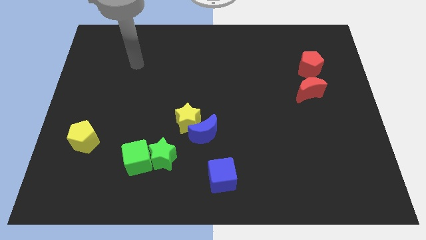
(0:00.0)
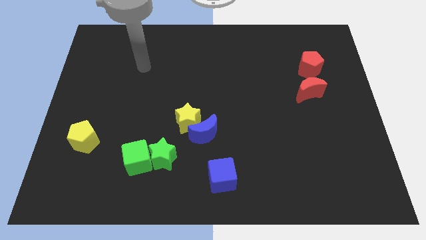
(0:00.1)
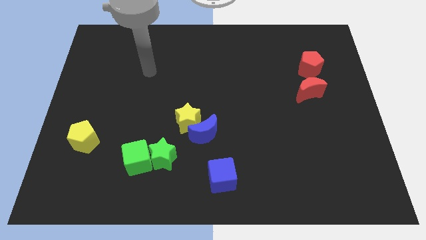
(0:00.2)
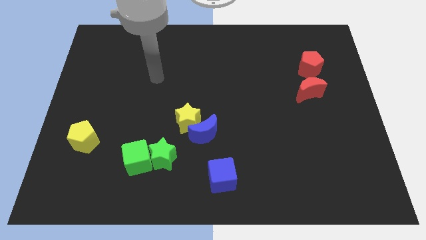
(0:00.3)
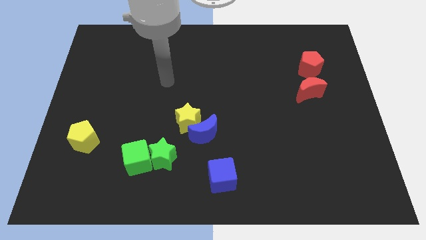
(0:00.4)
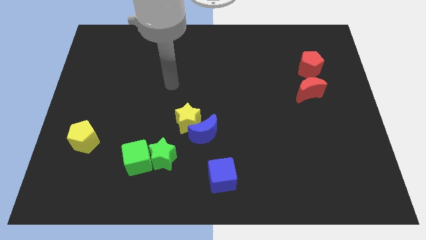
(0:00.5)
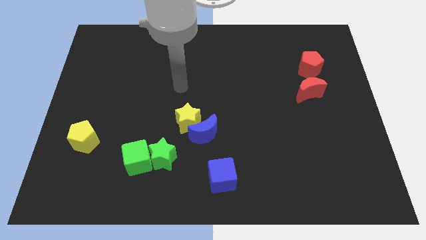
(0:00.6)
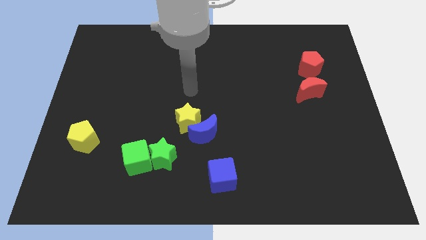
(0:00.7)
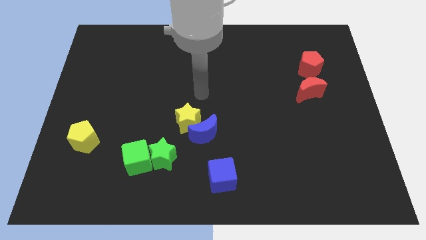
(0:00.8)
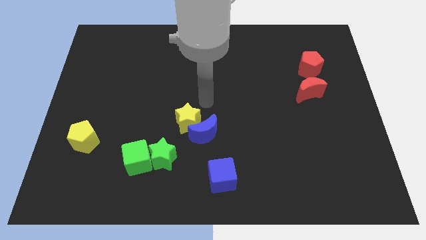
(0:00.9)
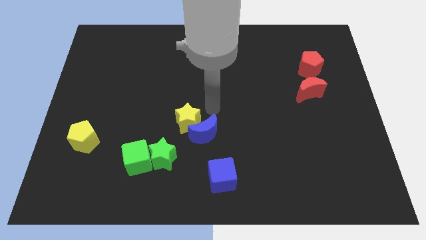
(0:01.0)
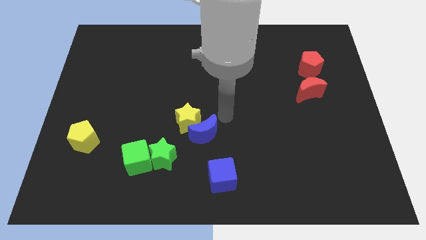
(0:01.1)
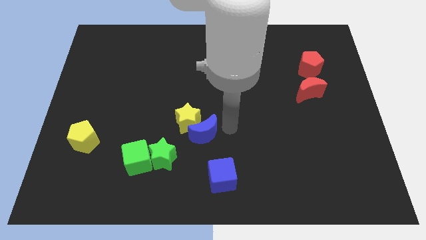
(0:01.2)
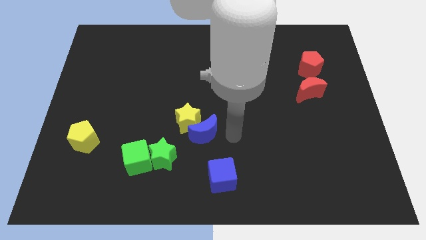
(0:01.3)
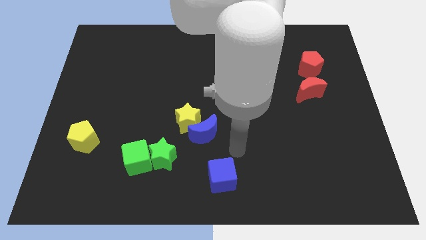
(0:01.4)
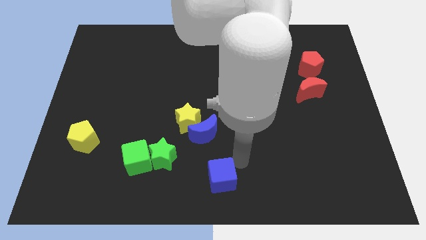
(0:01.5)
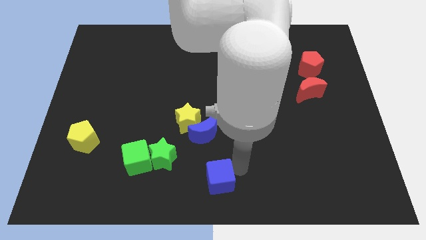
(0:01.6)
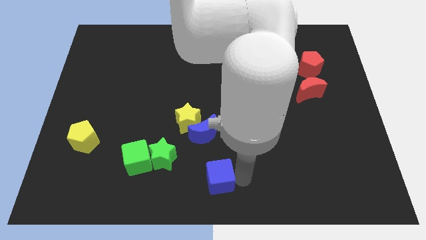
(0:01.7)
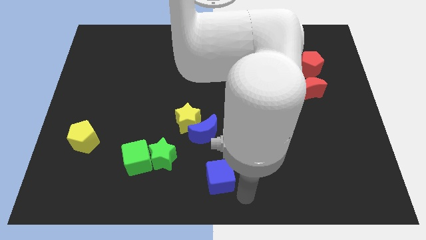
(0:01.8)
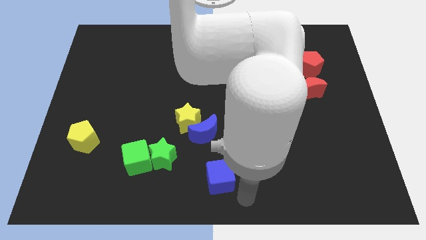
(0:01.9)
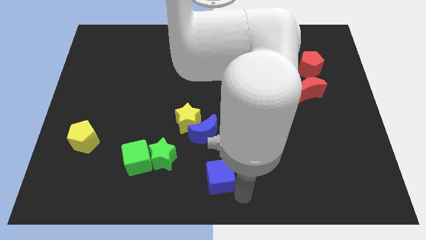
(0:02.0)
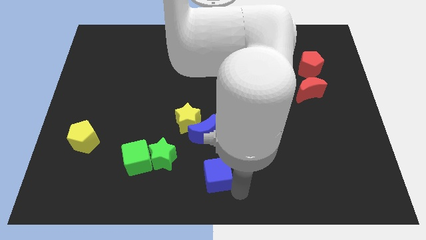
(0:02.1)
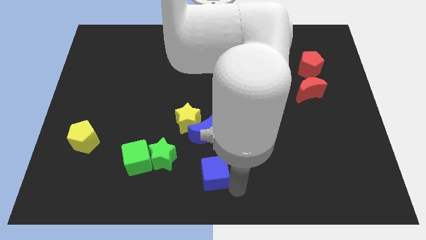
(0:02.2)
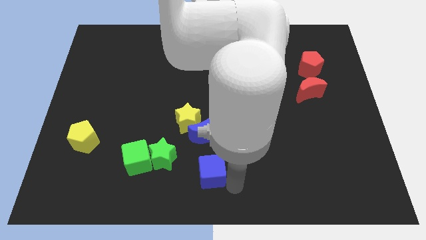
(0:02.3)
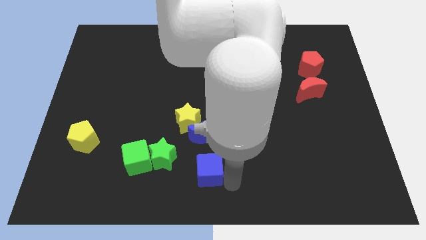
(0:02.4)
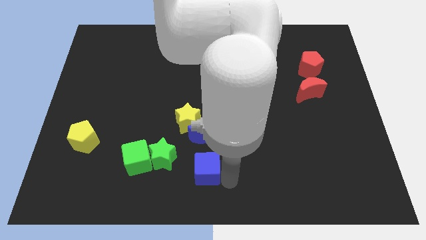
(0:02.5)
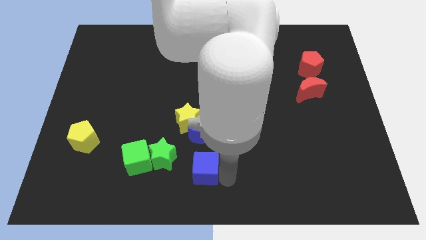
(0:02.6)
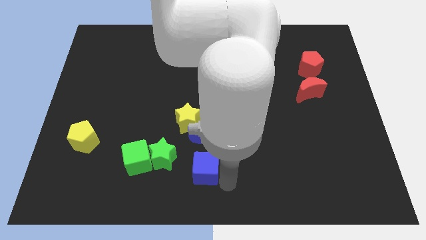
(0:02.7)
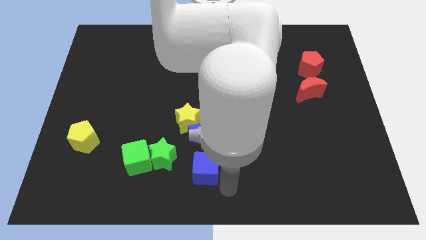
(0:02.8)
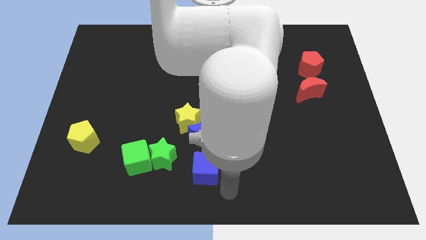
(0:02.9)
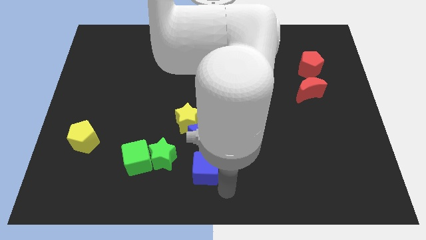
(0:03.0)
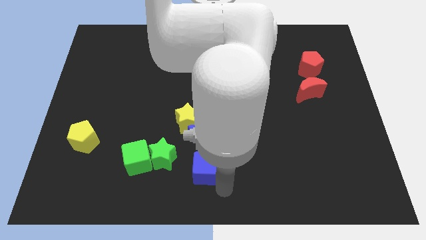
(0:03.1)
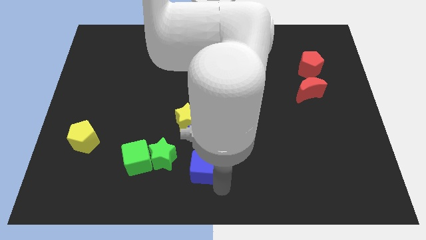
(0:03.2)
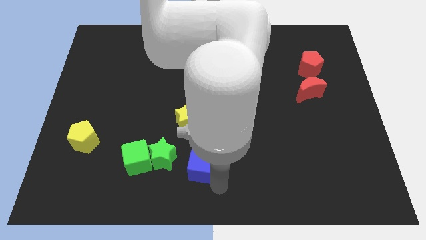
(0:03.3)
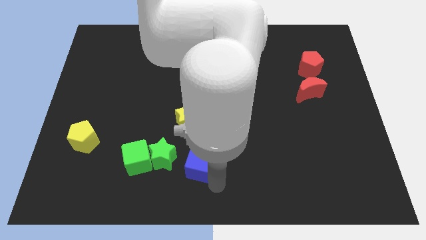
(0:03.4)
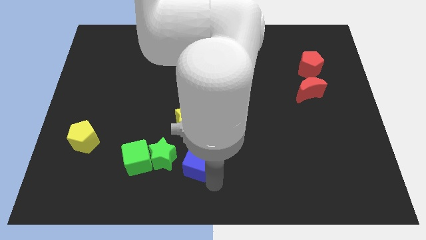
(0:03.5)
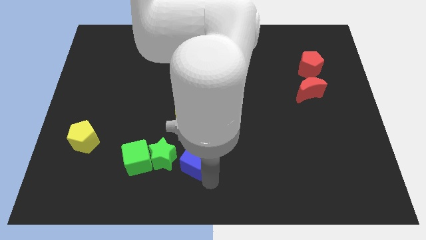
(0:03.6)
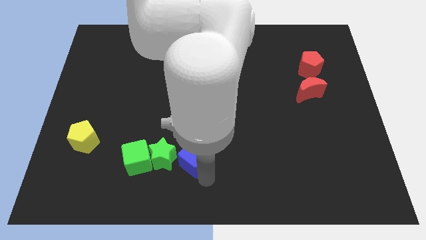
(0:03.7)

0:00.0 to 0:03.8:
slide the blue cube diagonally up and left slightly

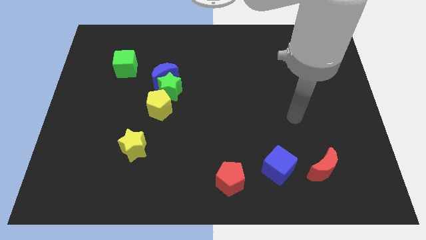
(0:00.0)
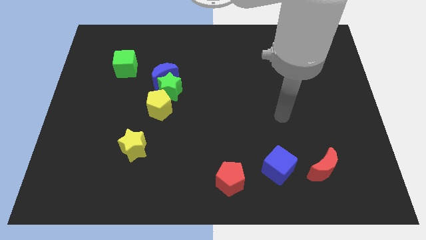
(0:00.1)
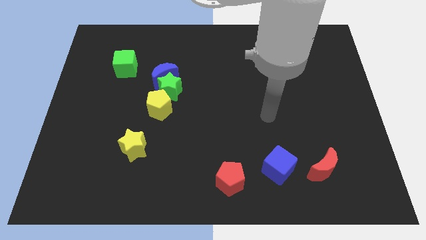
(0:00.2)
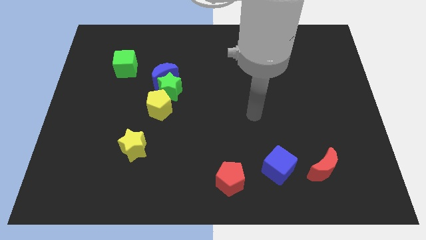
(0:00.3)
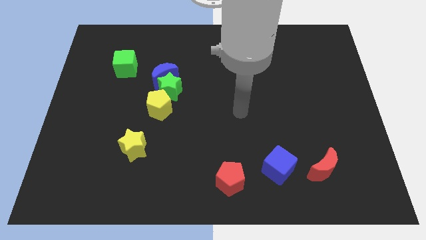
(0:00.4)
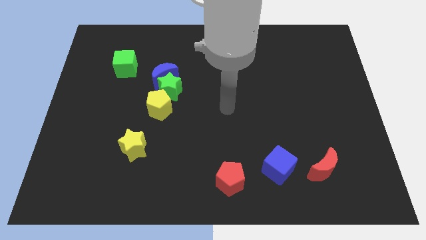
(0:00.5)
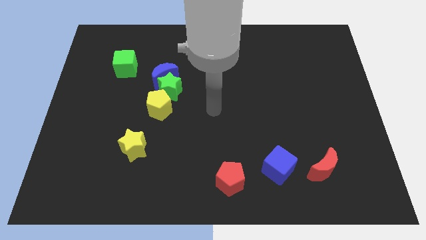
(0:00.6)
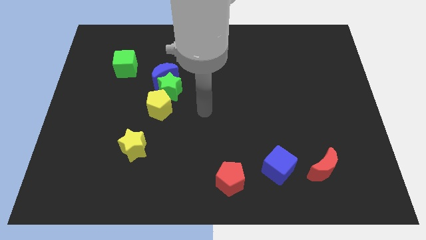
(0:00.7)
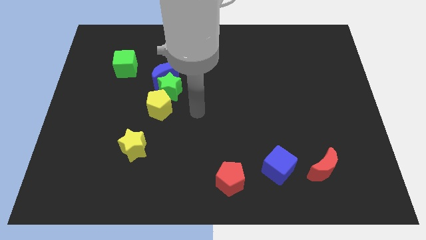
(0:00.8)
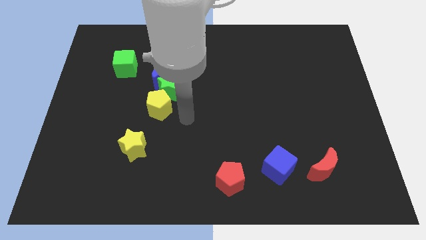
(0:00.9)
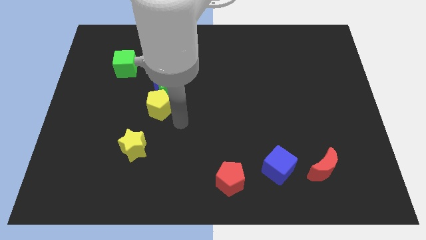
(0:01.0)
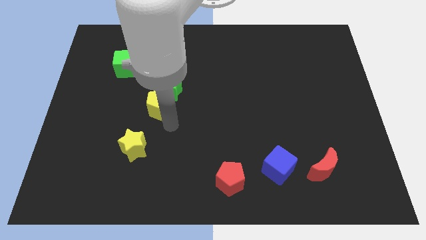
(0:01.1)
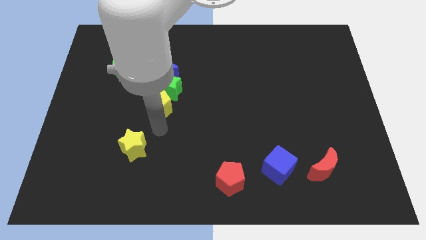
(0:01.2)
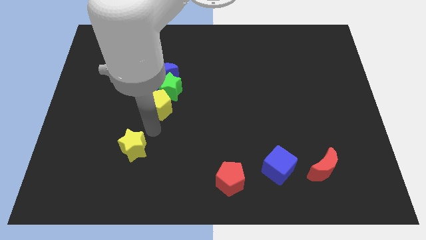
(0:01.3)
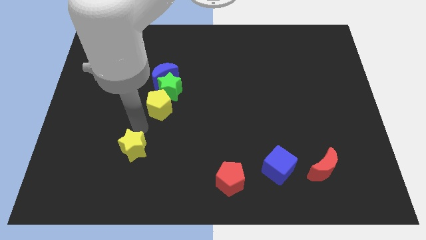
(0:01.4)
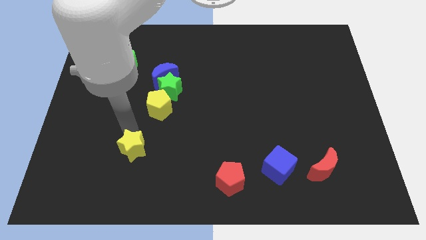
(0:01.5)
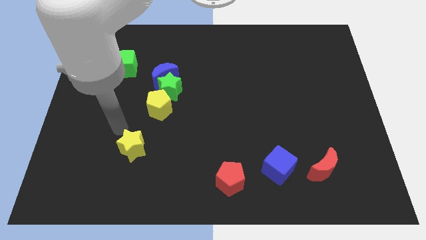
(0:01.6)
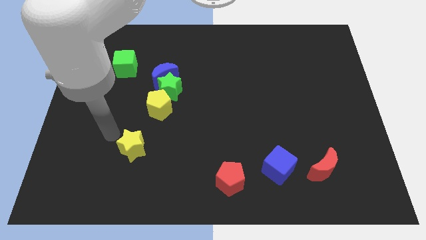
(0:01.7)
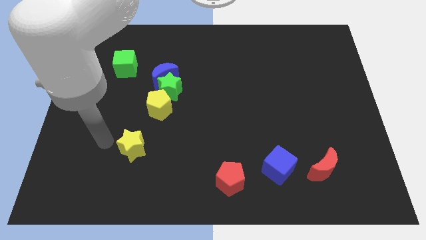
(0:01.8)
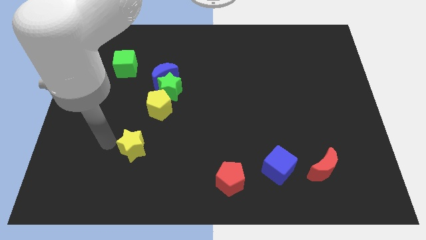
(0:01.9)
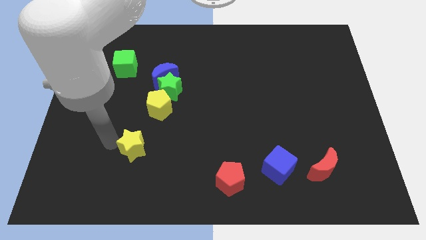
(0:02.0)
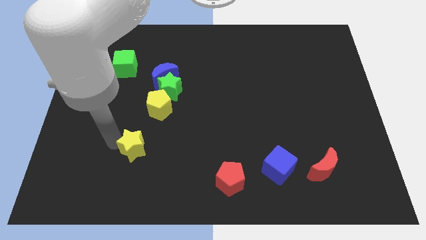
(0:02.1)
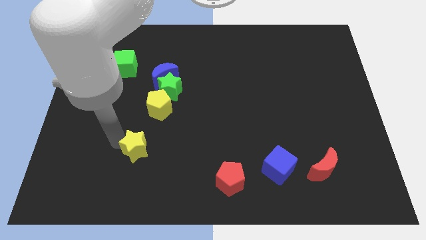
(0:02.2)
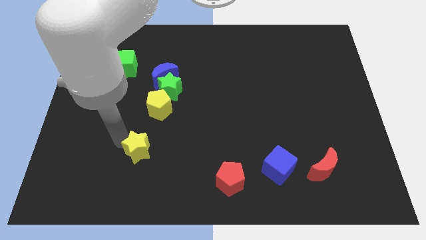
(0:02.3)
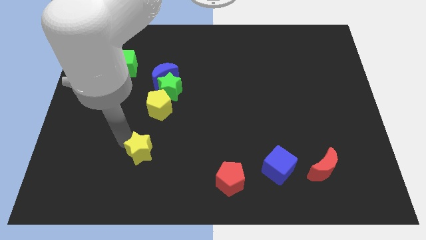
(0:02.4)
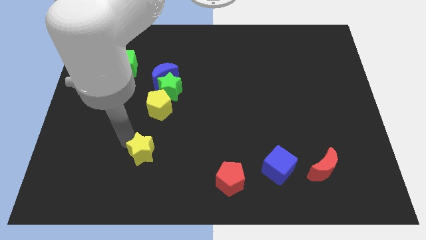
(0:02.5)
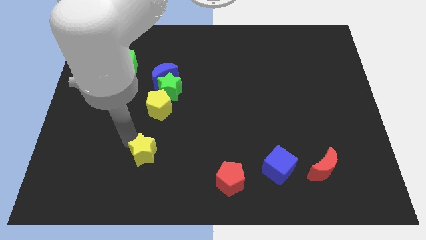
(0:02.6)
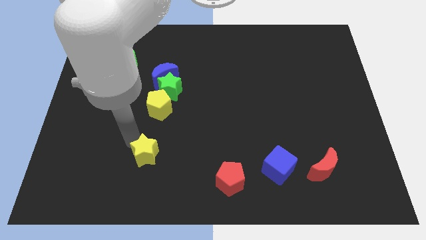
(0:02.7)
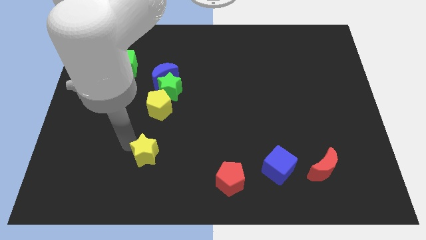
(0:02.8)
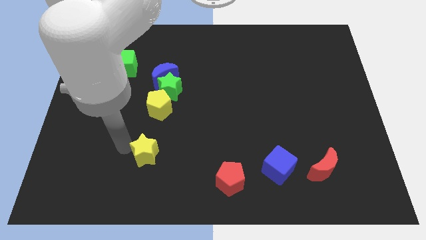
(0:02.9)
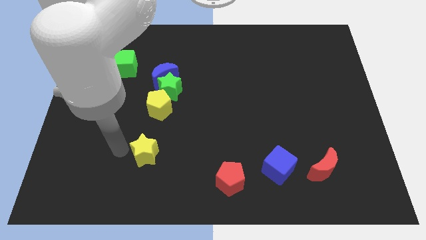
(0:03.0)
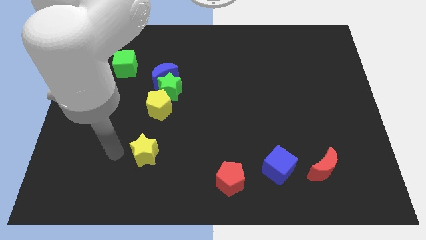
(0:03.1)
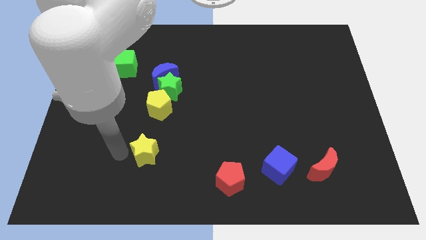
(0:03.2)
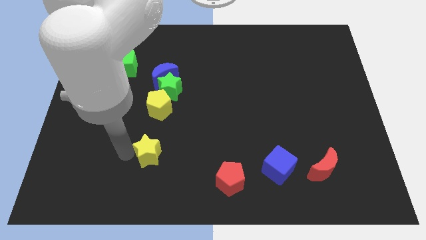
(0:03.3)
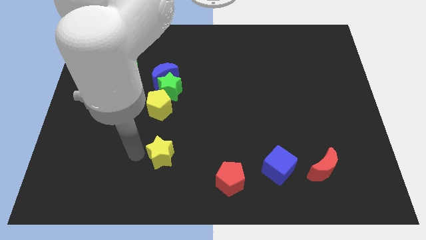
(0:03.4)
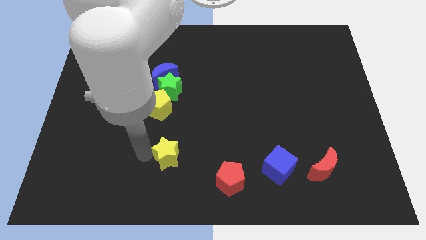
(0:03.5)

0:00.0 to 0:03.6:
slide the yellow star slightly to the right

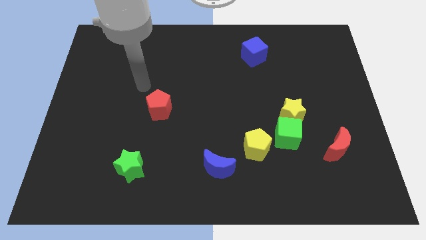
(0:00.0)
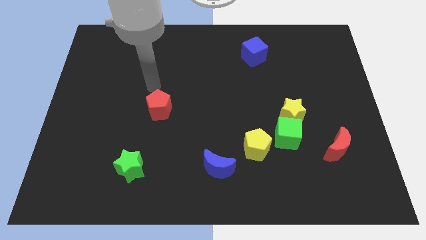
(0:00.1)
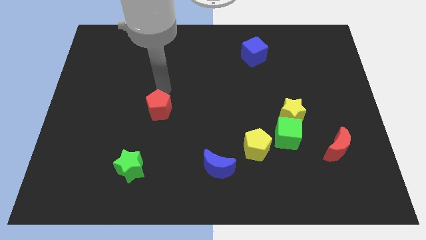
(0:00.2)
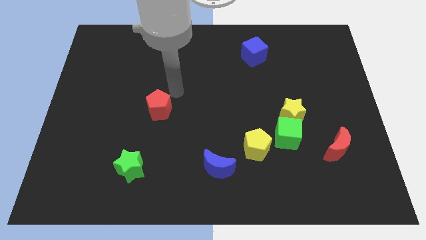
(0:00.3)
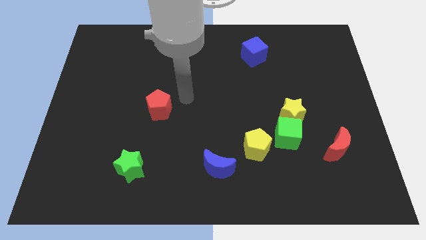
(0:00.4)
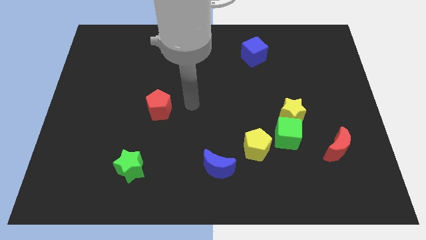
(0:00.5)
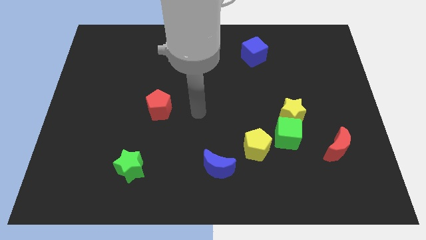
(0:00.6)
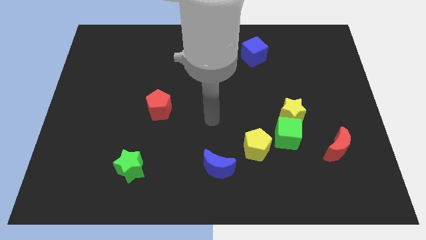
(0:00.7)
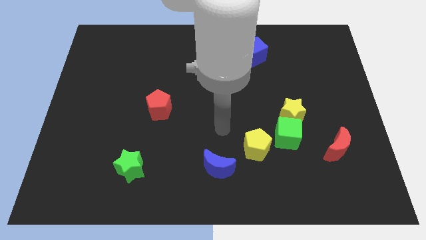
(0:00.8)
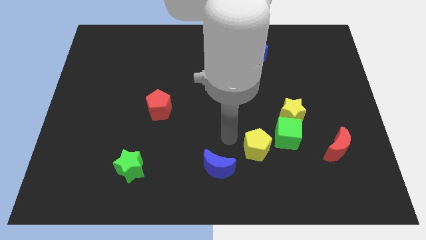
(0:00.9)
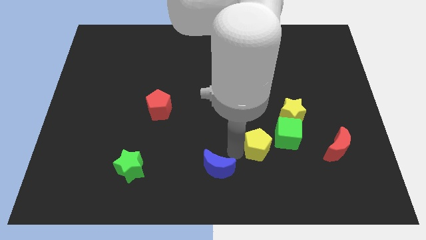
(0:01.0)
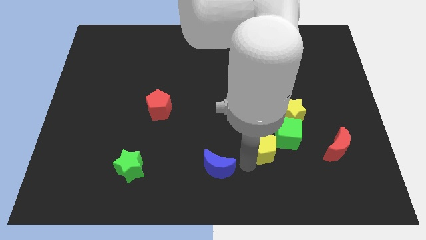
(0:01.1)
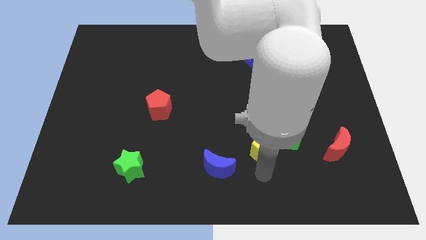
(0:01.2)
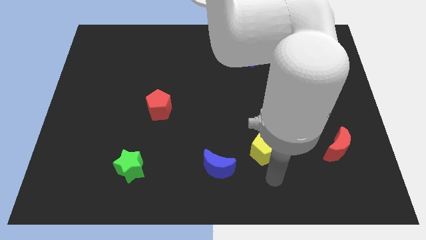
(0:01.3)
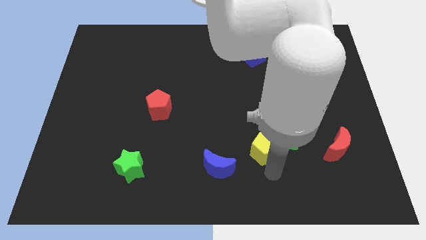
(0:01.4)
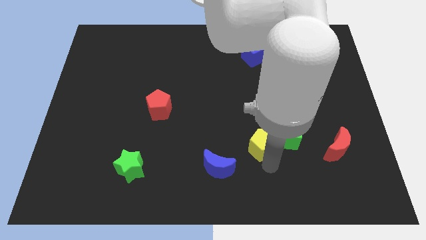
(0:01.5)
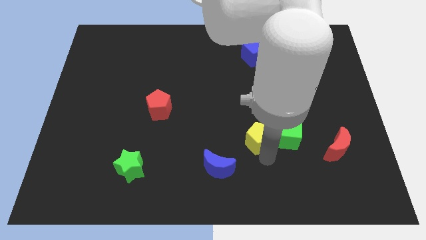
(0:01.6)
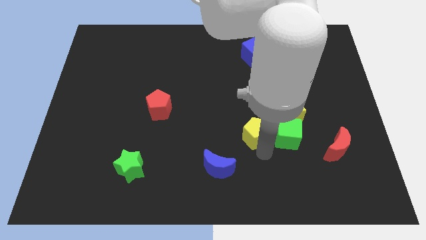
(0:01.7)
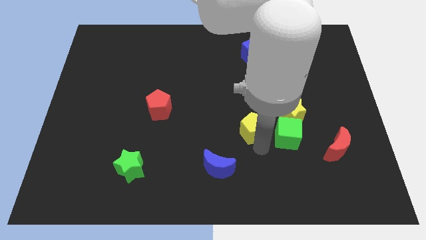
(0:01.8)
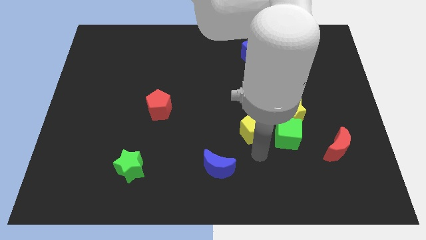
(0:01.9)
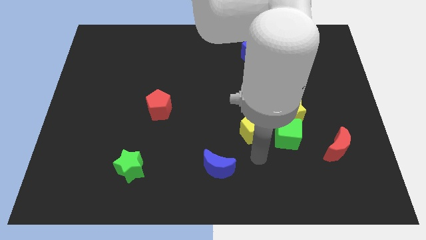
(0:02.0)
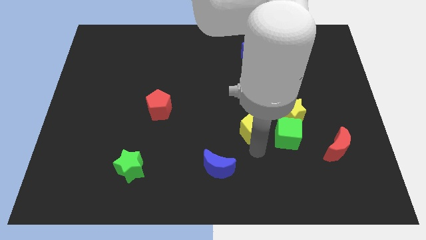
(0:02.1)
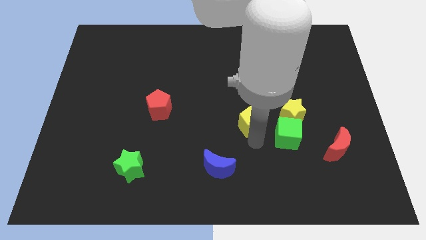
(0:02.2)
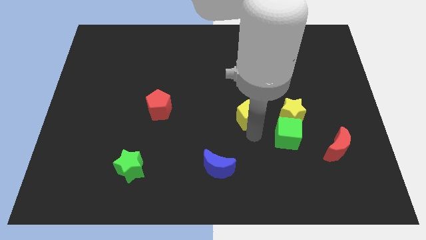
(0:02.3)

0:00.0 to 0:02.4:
push the yellow pentagon a little upwards
